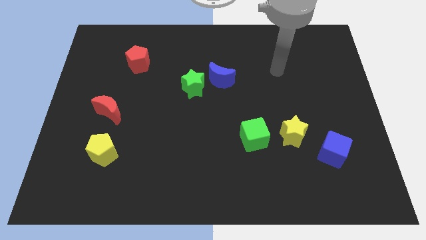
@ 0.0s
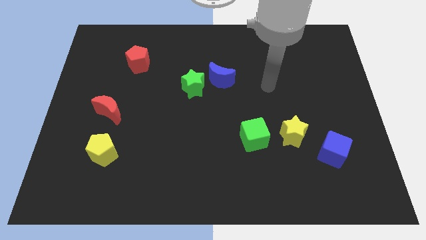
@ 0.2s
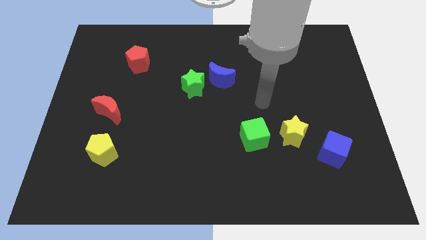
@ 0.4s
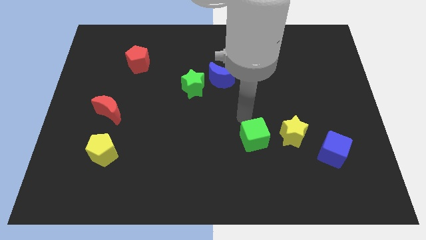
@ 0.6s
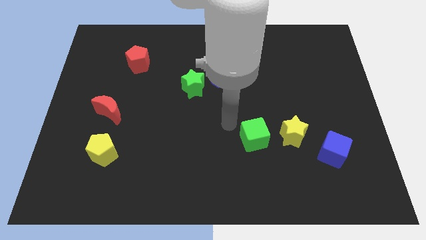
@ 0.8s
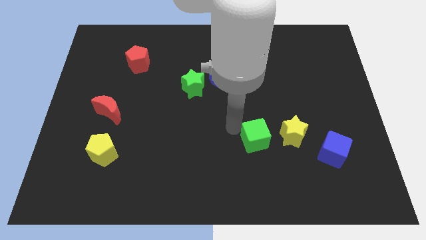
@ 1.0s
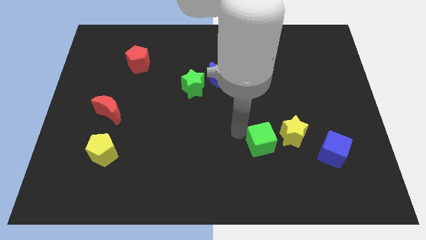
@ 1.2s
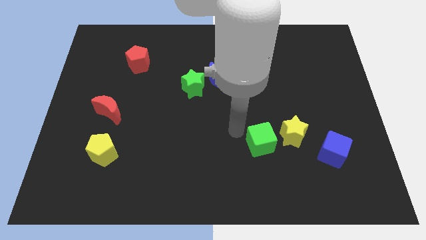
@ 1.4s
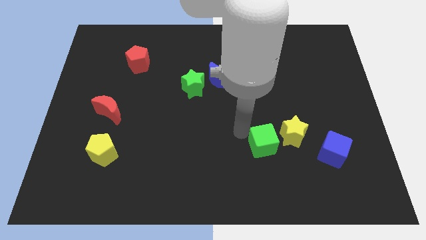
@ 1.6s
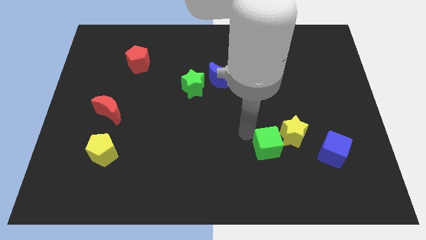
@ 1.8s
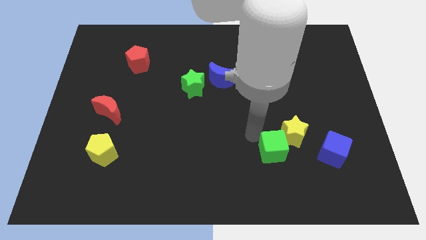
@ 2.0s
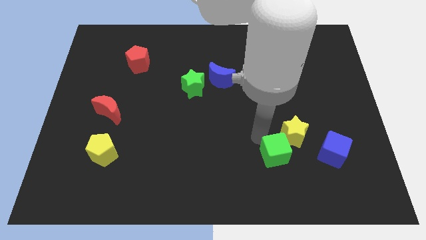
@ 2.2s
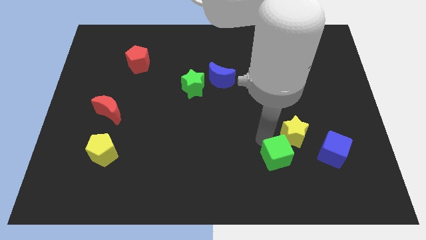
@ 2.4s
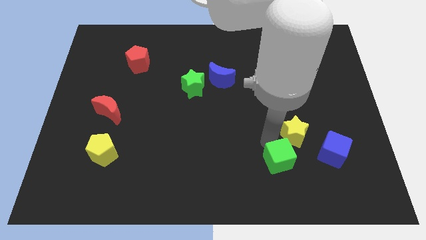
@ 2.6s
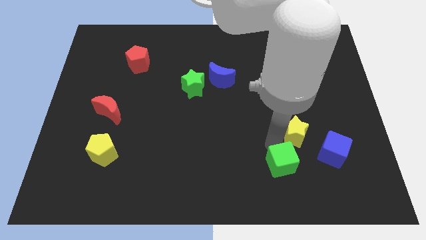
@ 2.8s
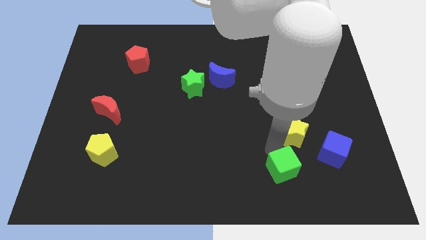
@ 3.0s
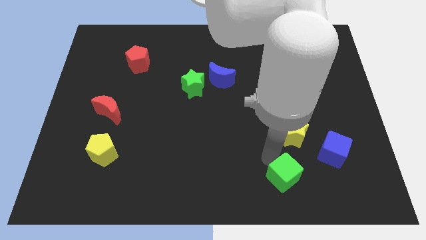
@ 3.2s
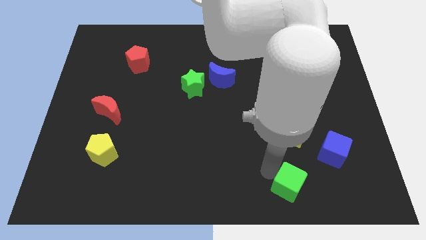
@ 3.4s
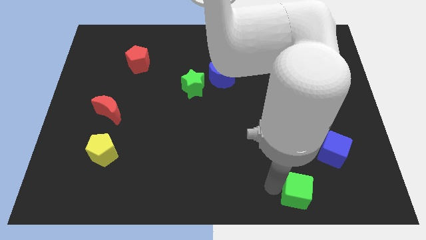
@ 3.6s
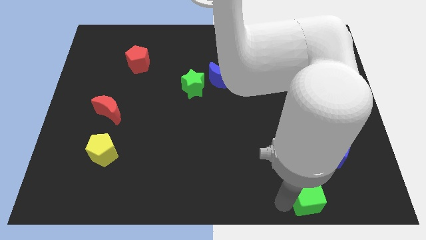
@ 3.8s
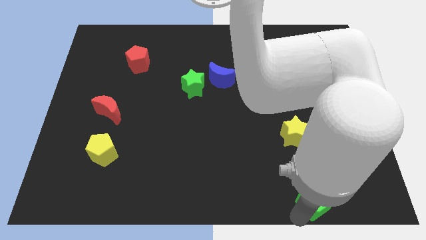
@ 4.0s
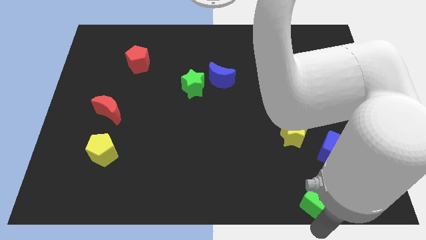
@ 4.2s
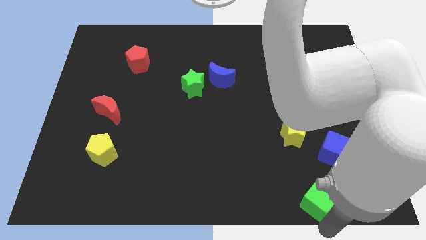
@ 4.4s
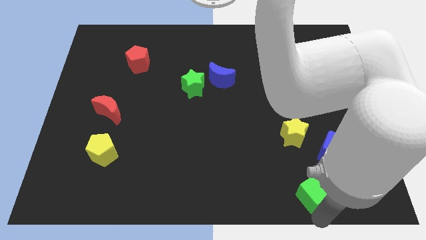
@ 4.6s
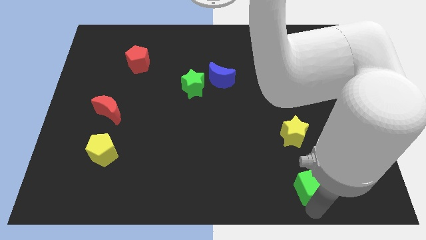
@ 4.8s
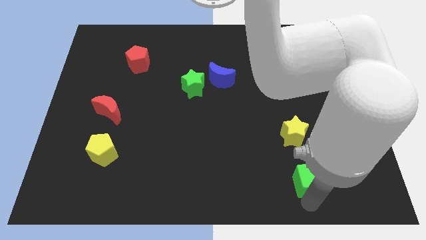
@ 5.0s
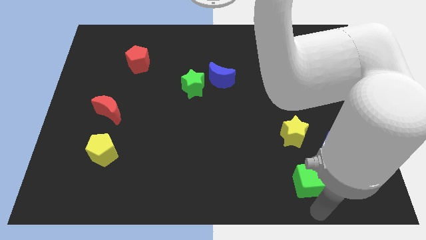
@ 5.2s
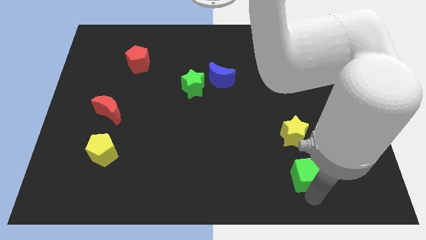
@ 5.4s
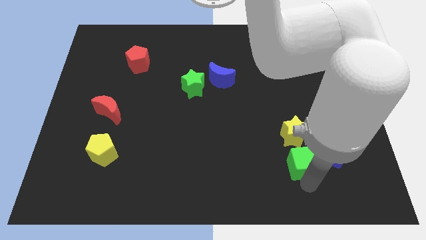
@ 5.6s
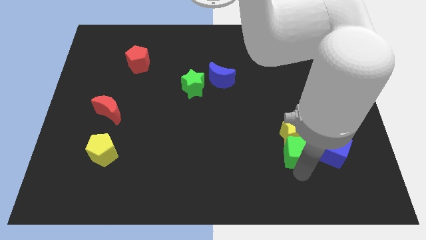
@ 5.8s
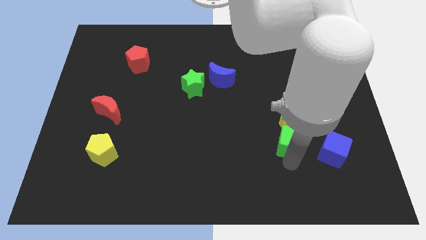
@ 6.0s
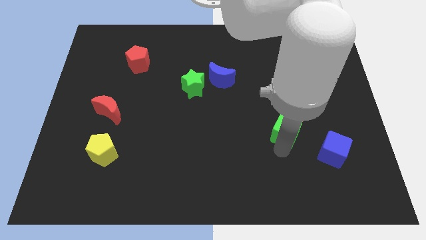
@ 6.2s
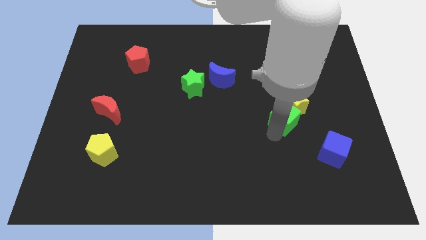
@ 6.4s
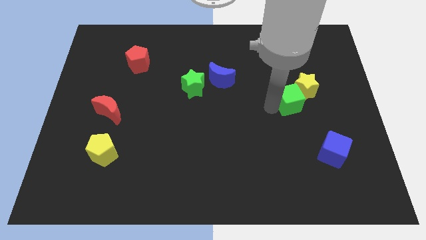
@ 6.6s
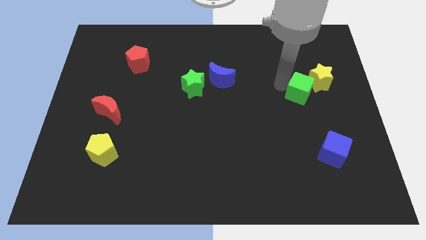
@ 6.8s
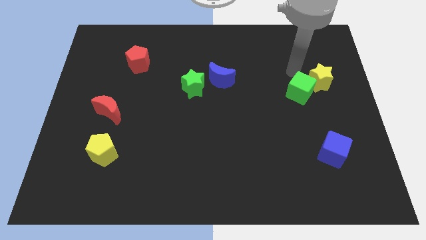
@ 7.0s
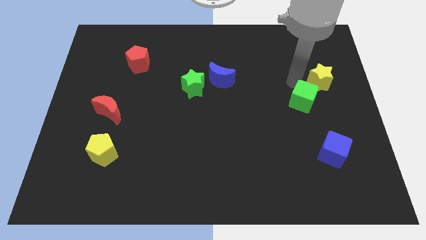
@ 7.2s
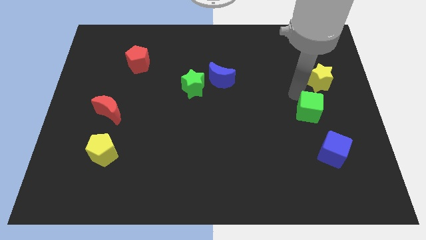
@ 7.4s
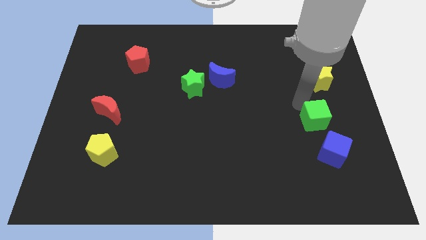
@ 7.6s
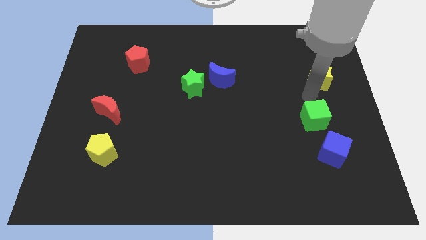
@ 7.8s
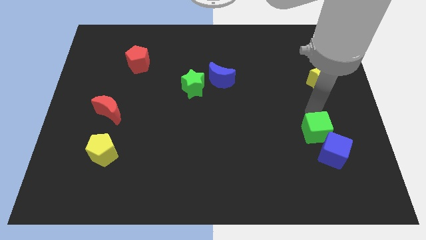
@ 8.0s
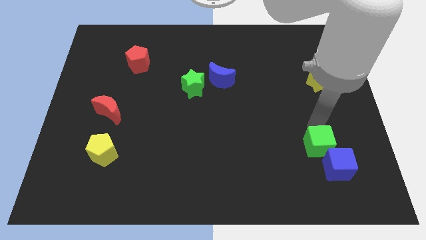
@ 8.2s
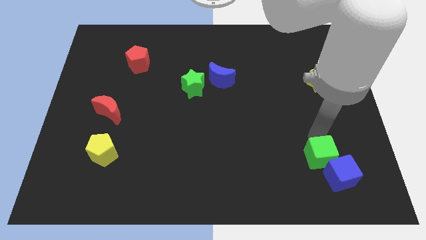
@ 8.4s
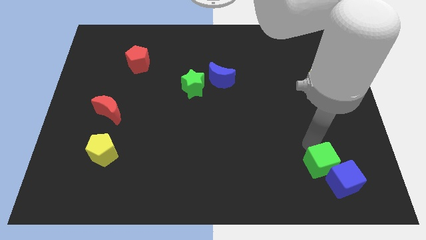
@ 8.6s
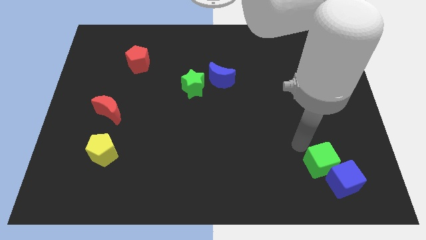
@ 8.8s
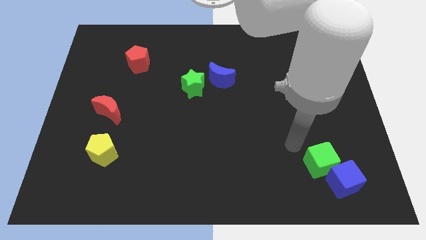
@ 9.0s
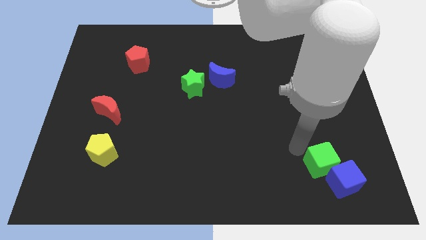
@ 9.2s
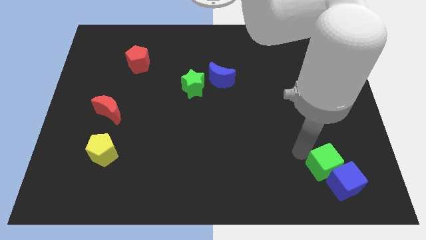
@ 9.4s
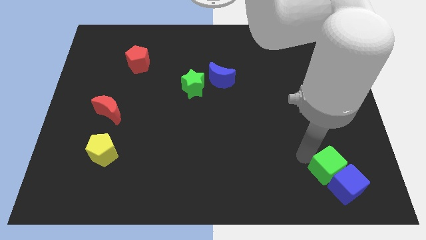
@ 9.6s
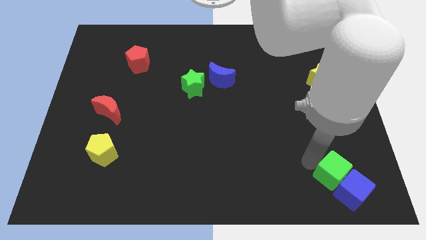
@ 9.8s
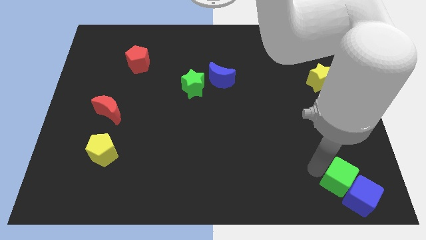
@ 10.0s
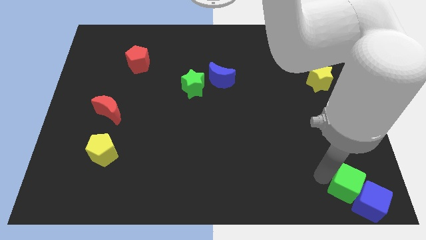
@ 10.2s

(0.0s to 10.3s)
move the green cube to the bottom right

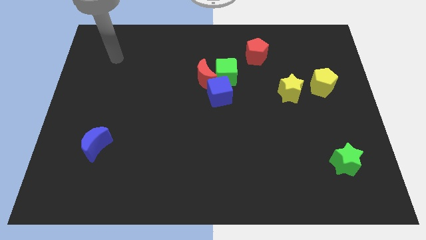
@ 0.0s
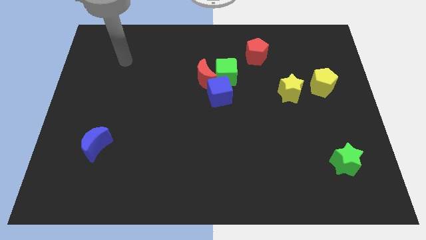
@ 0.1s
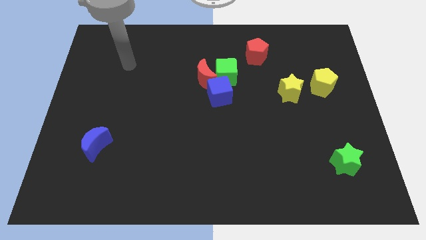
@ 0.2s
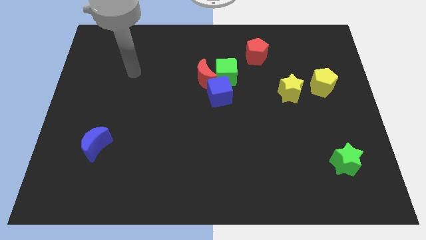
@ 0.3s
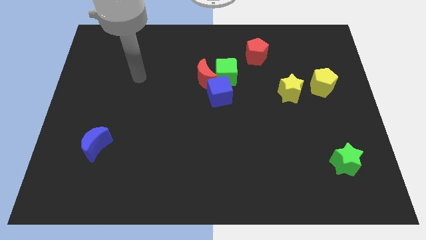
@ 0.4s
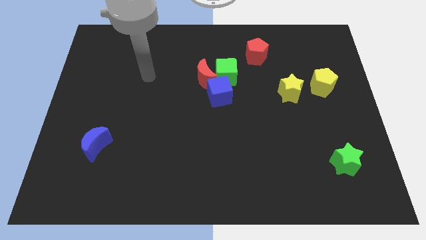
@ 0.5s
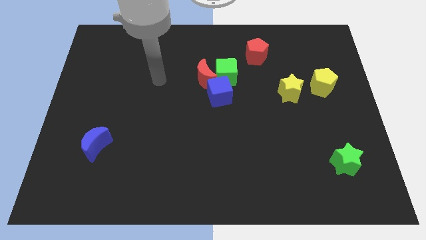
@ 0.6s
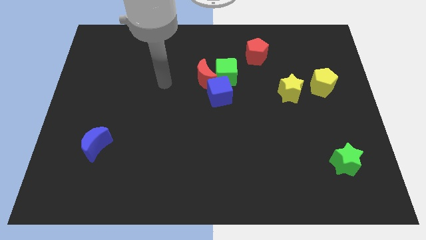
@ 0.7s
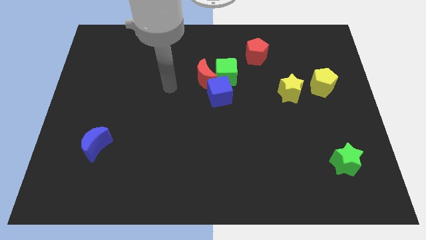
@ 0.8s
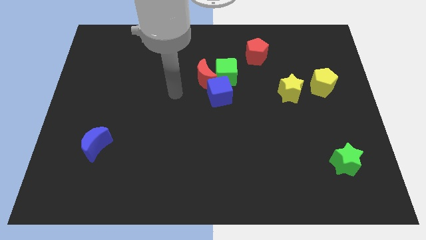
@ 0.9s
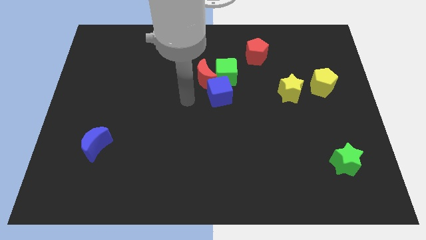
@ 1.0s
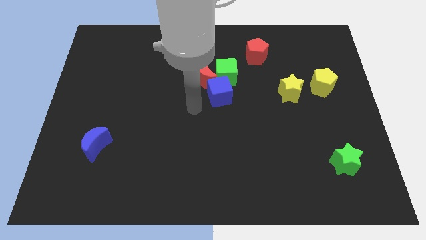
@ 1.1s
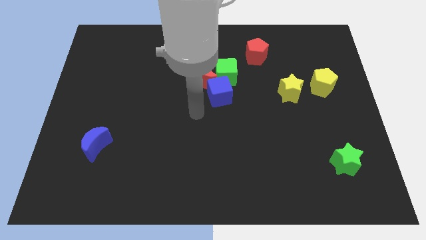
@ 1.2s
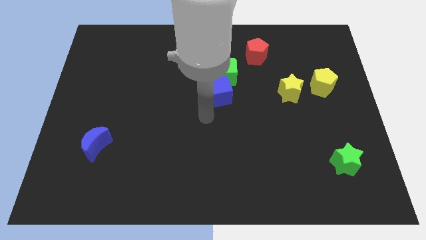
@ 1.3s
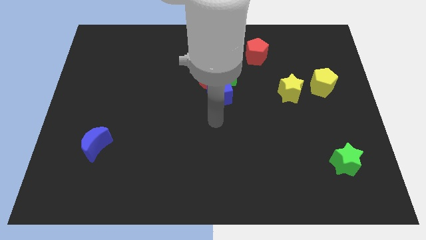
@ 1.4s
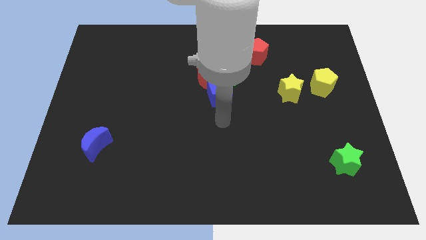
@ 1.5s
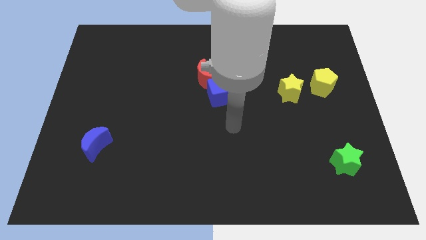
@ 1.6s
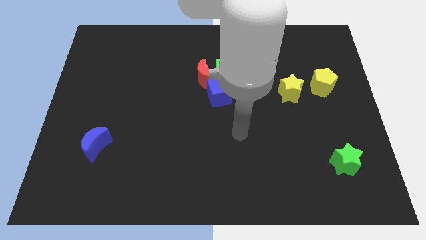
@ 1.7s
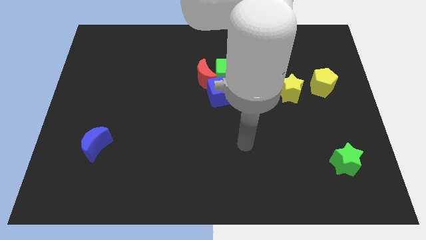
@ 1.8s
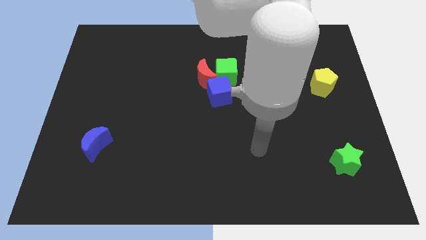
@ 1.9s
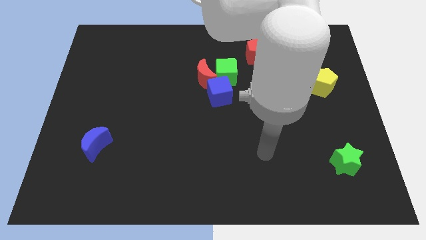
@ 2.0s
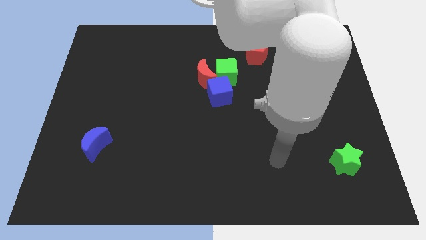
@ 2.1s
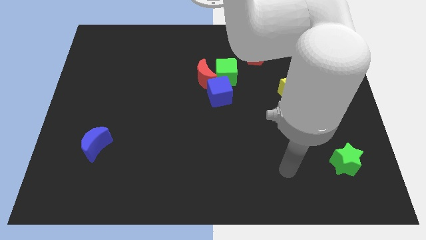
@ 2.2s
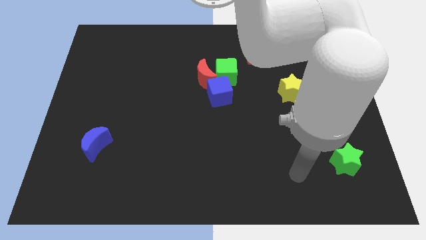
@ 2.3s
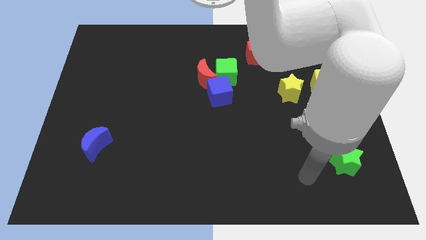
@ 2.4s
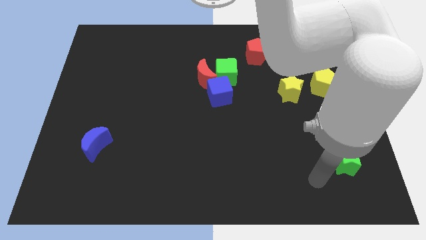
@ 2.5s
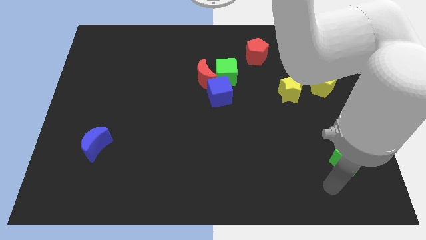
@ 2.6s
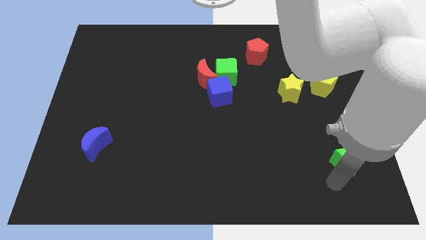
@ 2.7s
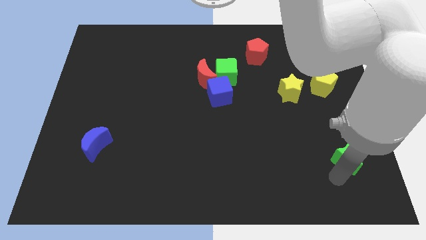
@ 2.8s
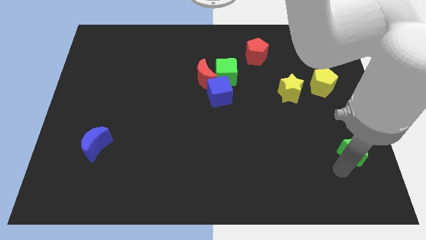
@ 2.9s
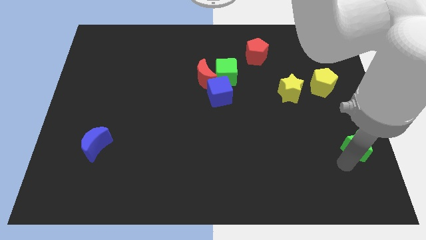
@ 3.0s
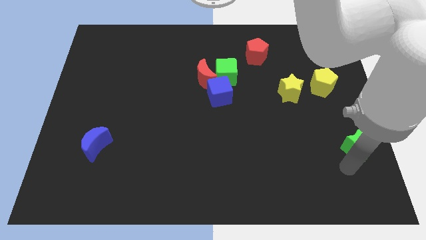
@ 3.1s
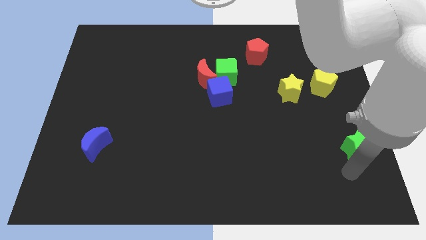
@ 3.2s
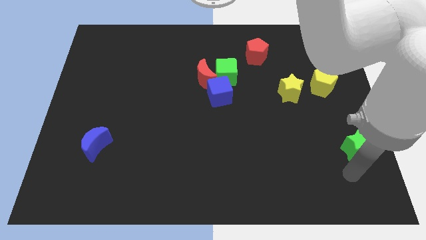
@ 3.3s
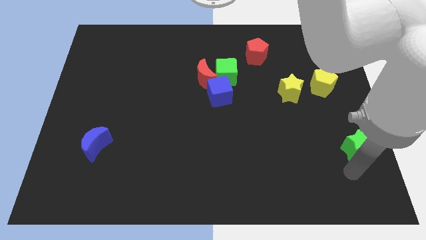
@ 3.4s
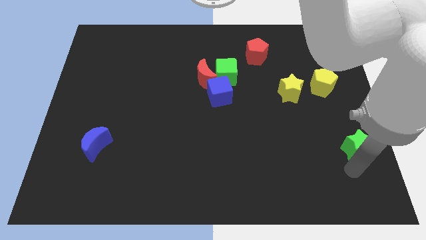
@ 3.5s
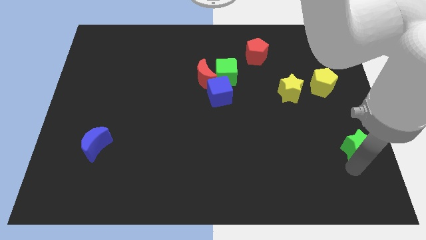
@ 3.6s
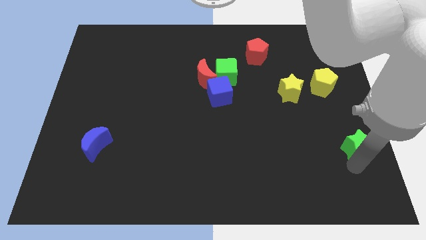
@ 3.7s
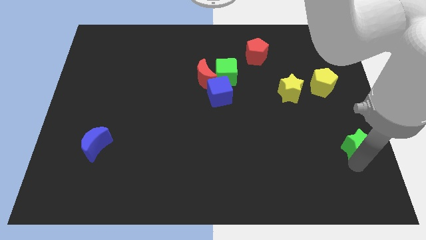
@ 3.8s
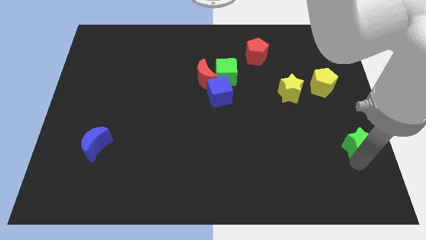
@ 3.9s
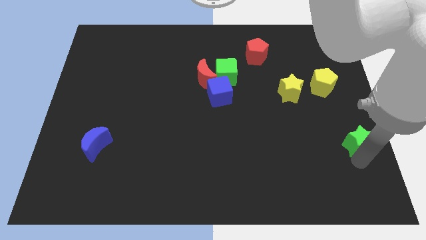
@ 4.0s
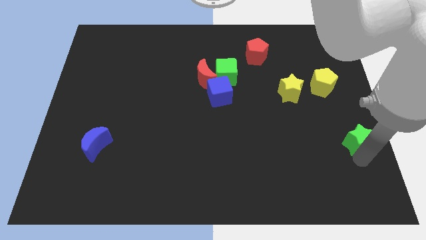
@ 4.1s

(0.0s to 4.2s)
push the green star to the right side of the board
